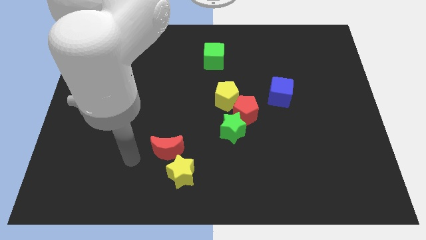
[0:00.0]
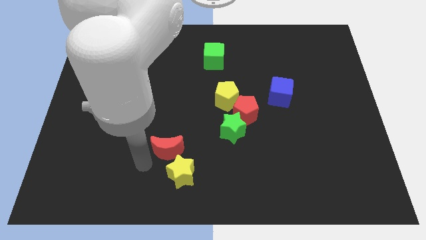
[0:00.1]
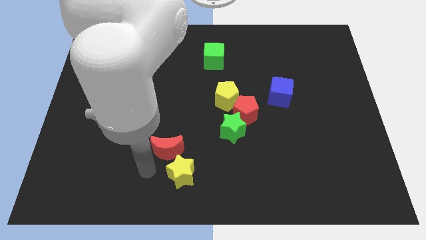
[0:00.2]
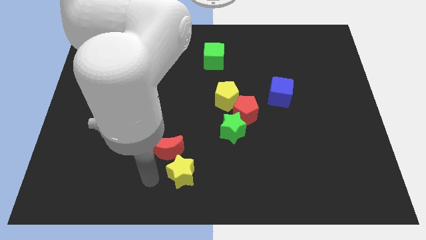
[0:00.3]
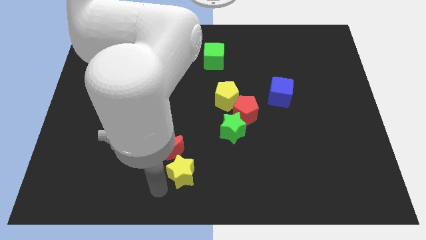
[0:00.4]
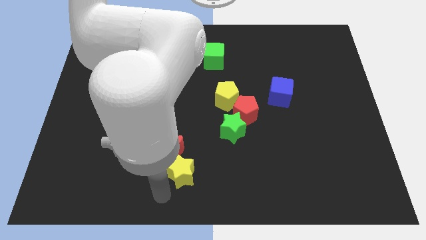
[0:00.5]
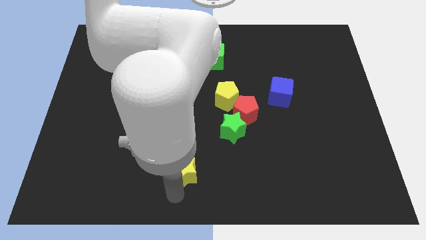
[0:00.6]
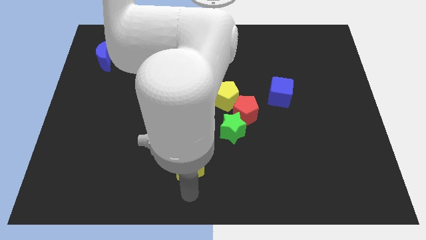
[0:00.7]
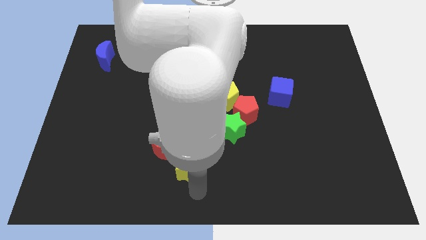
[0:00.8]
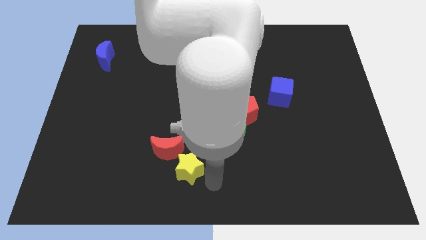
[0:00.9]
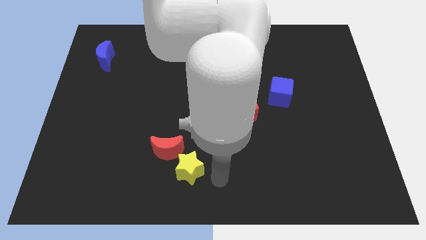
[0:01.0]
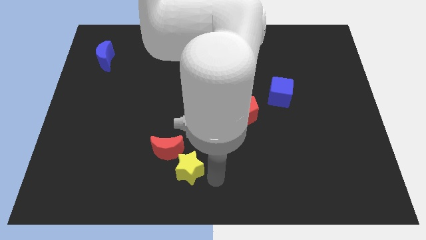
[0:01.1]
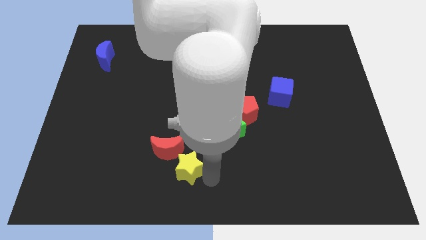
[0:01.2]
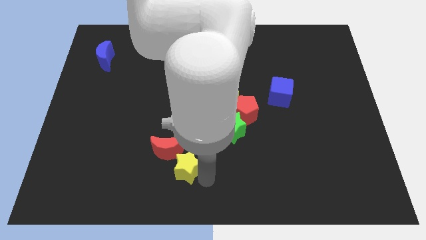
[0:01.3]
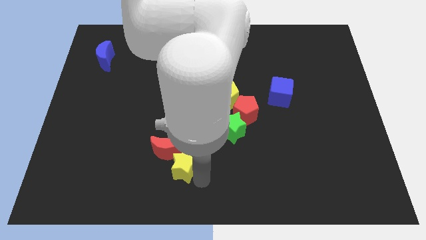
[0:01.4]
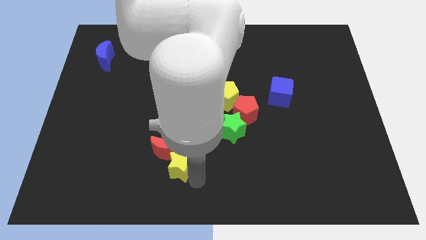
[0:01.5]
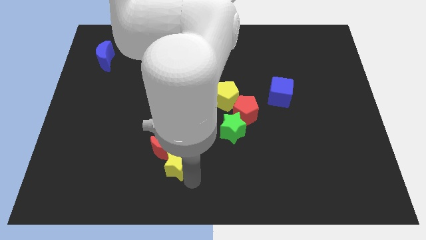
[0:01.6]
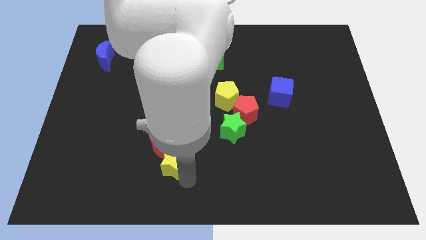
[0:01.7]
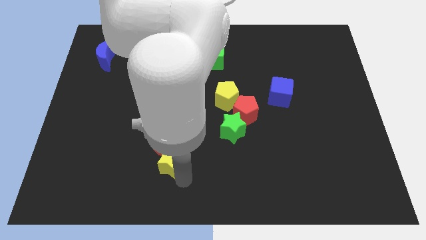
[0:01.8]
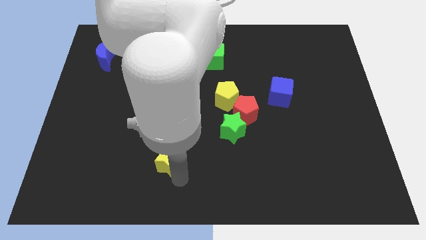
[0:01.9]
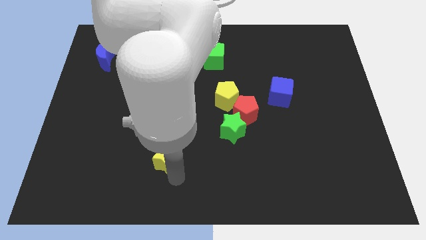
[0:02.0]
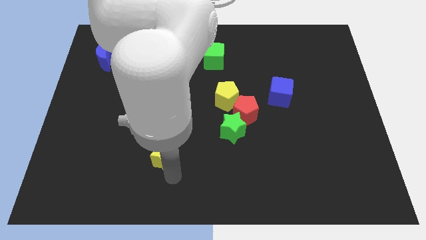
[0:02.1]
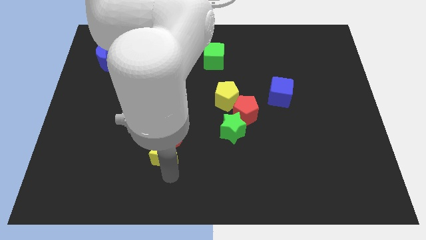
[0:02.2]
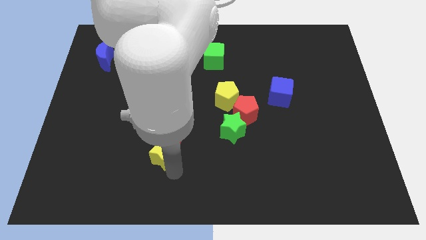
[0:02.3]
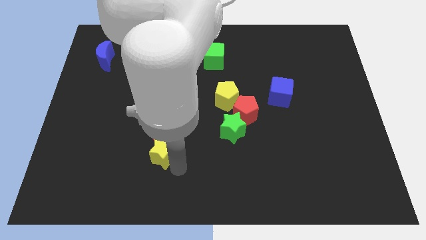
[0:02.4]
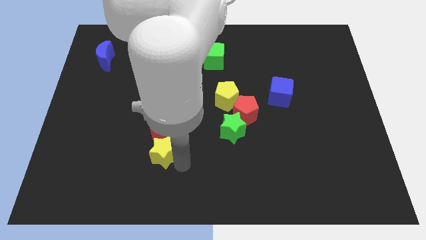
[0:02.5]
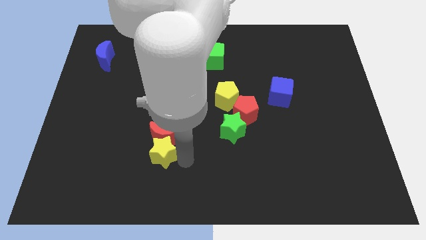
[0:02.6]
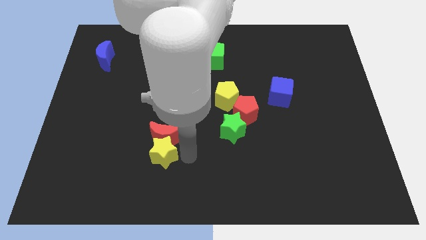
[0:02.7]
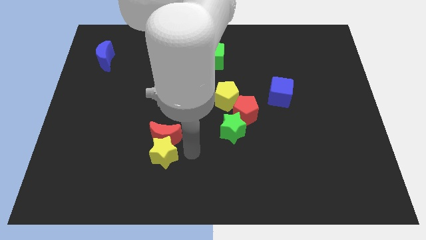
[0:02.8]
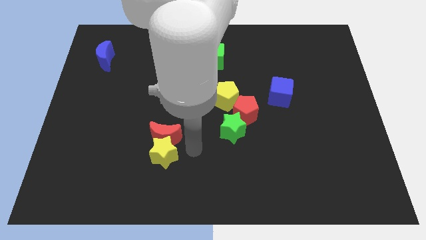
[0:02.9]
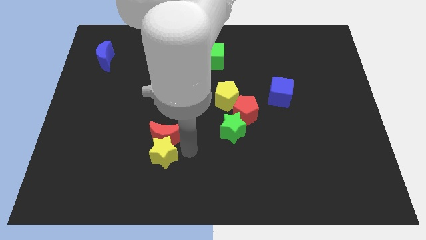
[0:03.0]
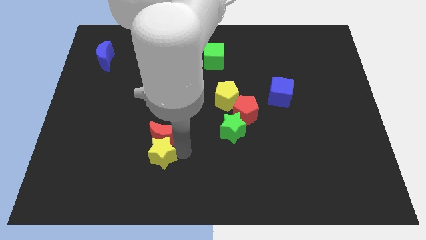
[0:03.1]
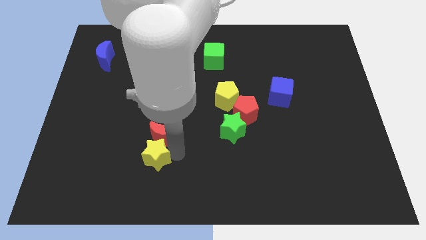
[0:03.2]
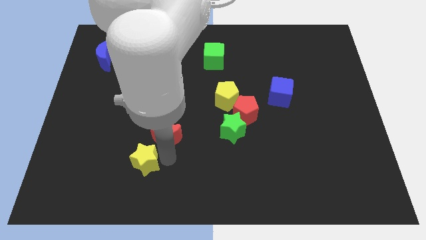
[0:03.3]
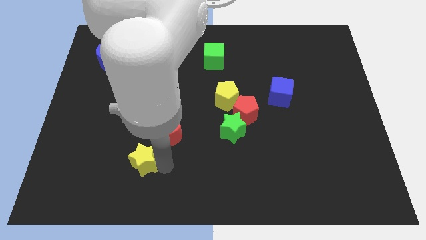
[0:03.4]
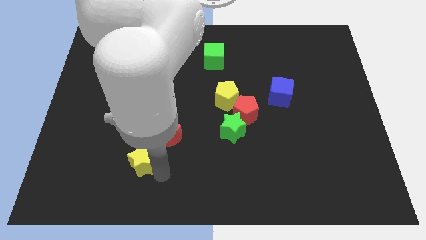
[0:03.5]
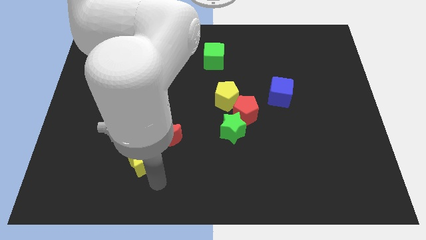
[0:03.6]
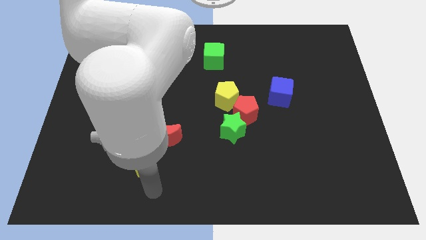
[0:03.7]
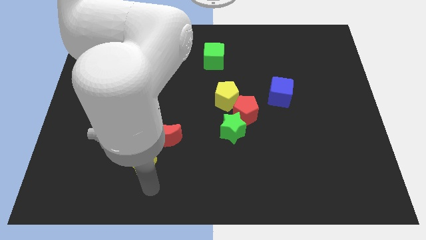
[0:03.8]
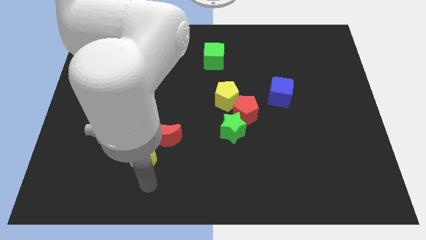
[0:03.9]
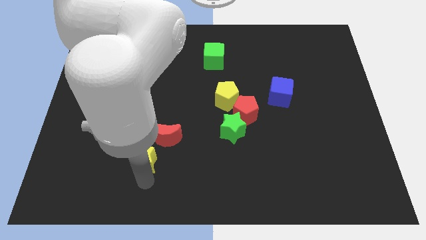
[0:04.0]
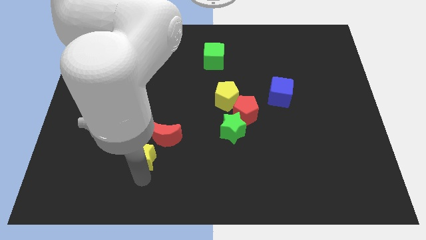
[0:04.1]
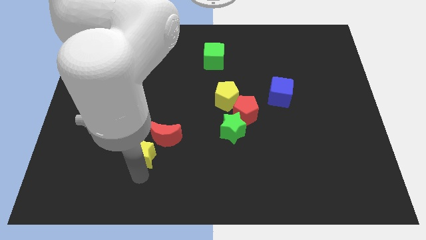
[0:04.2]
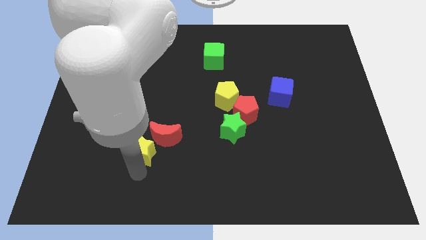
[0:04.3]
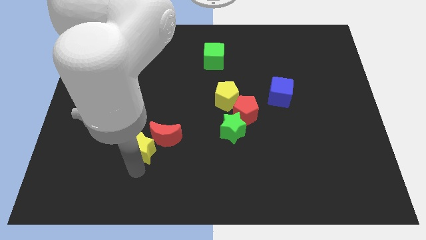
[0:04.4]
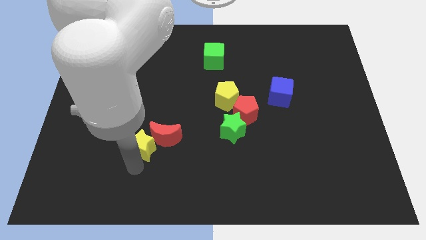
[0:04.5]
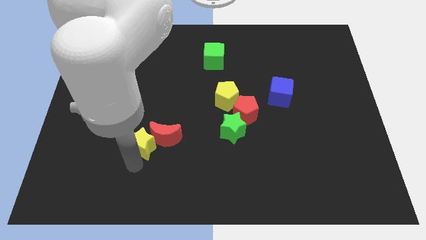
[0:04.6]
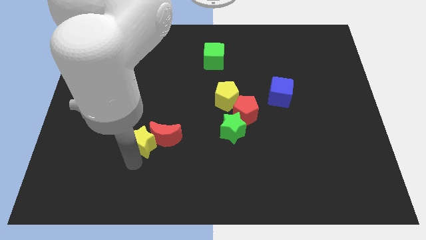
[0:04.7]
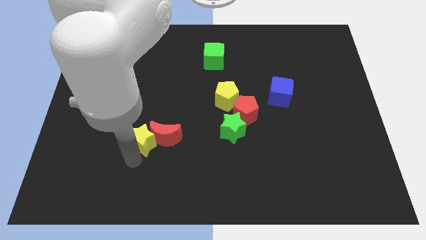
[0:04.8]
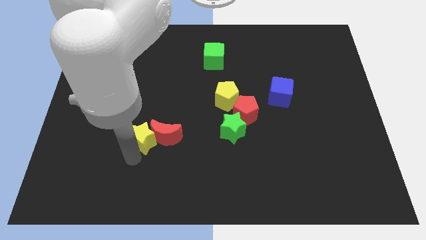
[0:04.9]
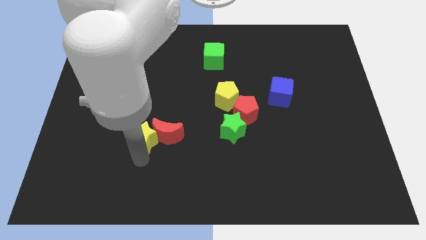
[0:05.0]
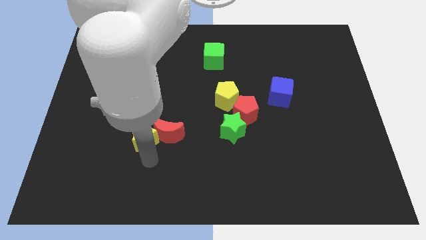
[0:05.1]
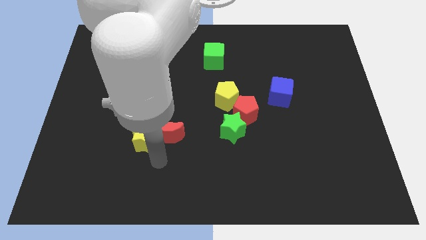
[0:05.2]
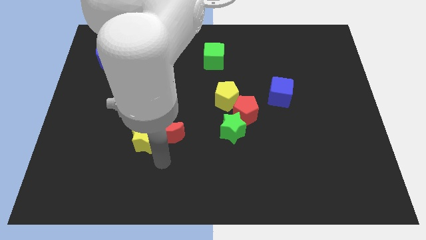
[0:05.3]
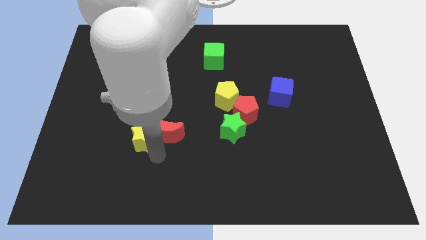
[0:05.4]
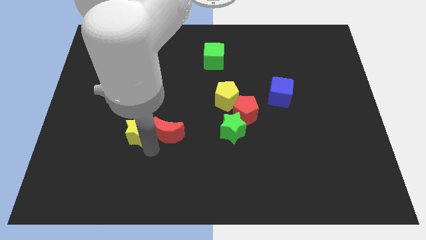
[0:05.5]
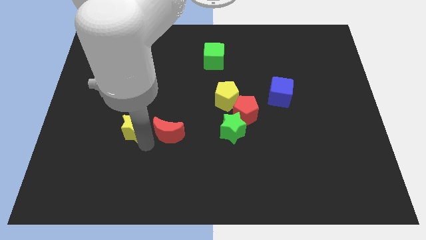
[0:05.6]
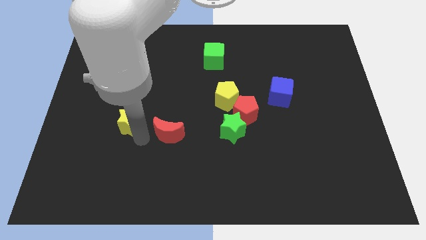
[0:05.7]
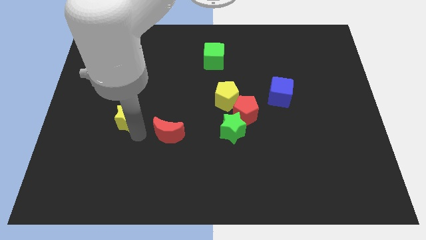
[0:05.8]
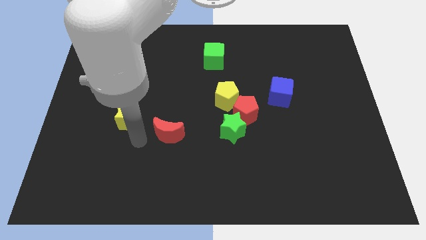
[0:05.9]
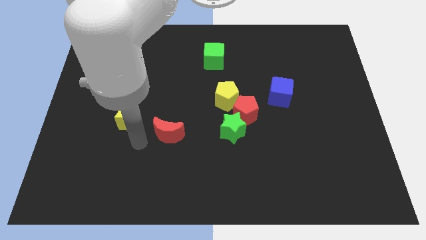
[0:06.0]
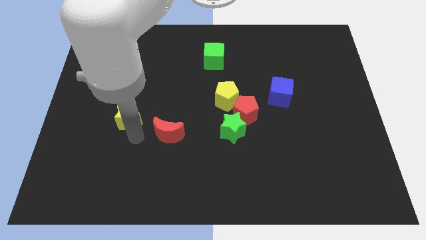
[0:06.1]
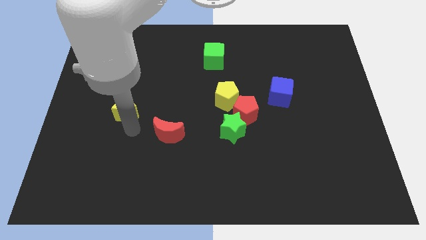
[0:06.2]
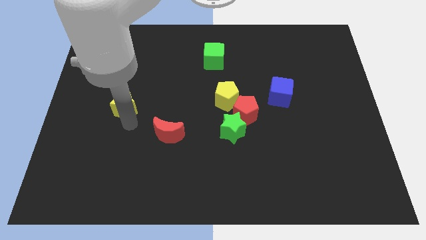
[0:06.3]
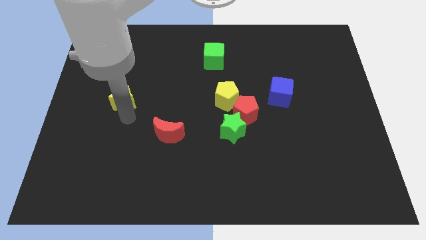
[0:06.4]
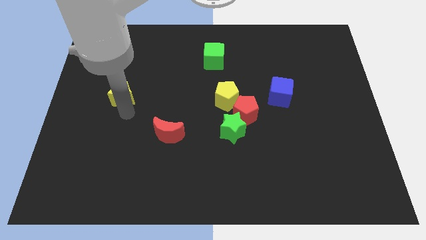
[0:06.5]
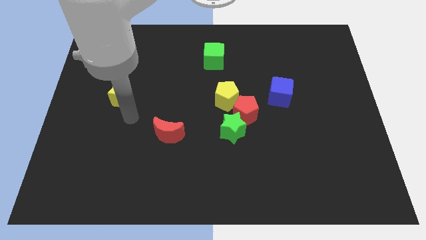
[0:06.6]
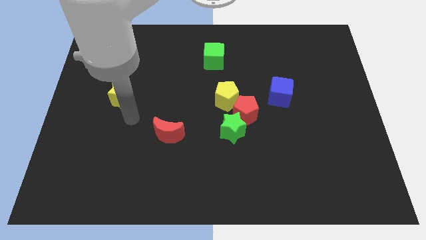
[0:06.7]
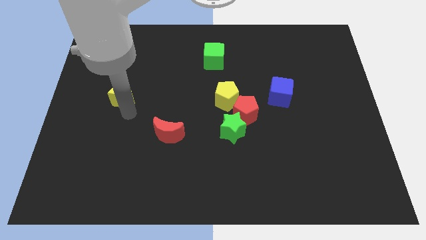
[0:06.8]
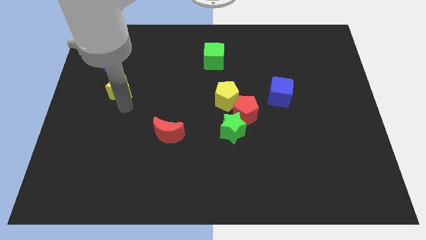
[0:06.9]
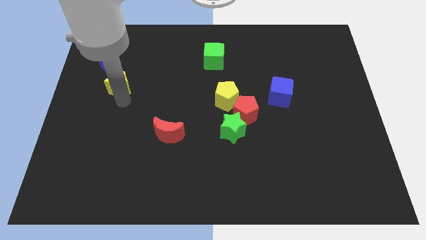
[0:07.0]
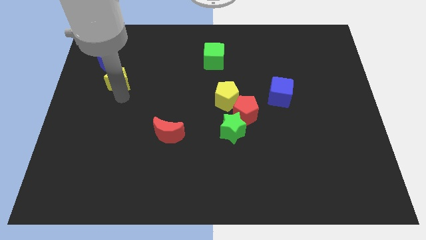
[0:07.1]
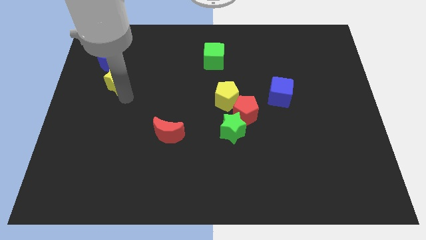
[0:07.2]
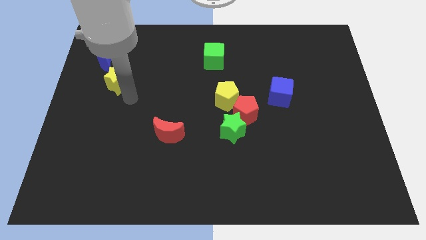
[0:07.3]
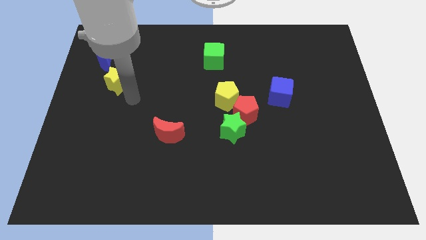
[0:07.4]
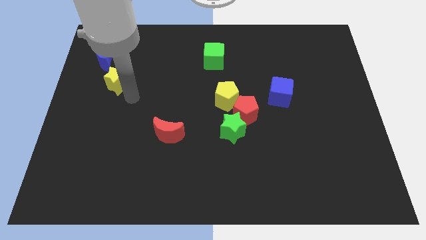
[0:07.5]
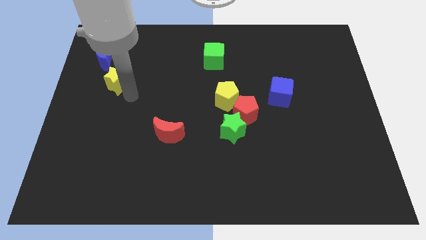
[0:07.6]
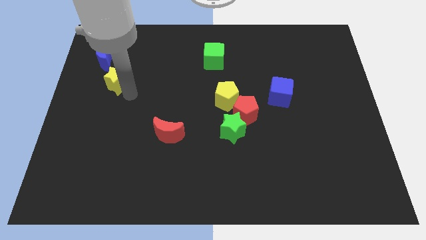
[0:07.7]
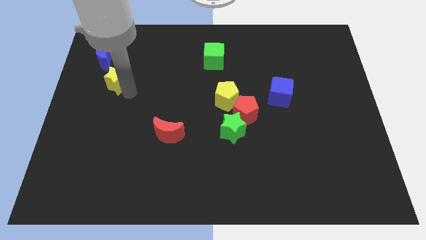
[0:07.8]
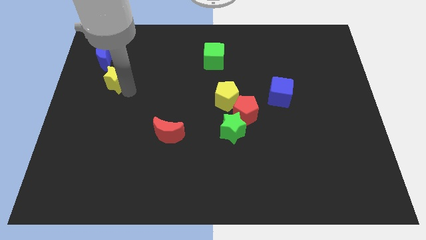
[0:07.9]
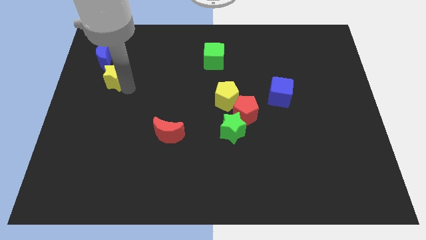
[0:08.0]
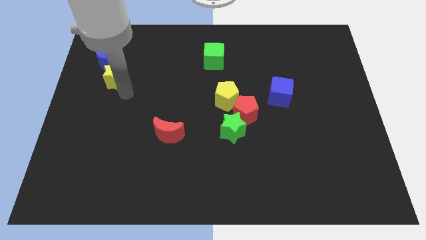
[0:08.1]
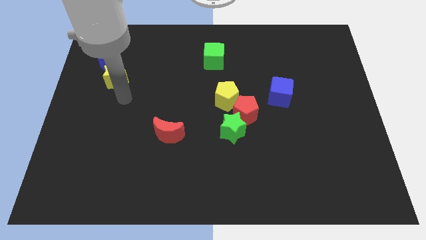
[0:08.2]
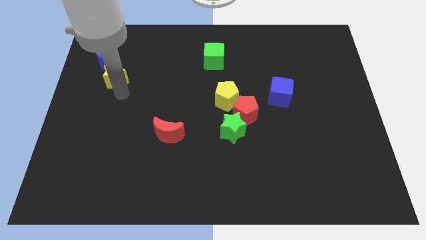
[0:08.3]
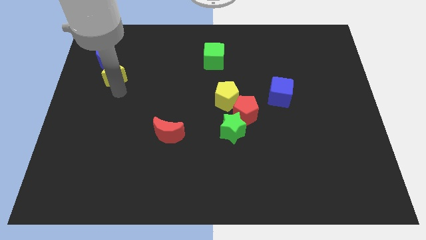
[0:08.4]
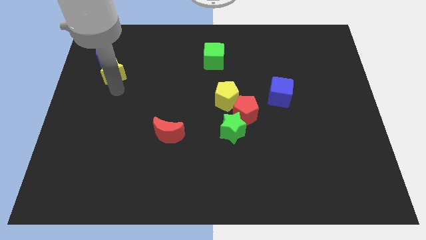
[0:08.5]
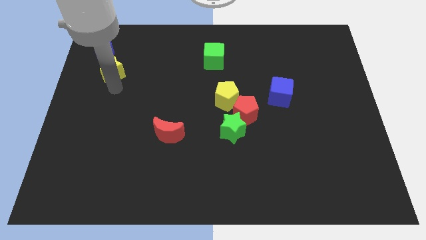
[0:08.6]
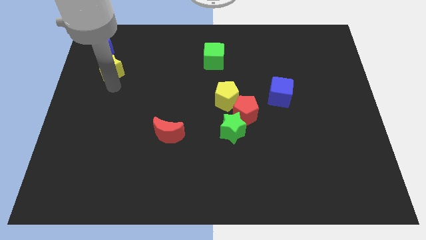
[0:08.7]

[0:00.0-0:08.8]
slide the yellow star to the blue moon
